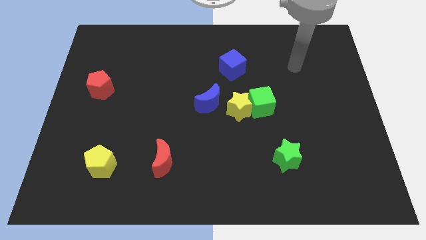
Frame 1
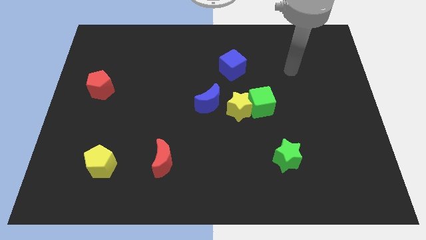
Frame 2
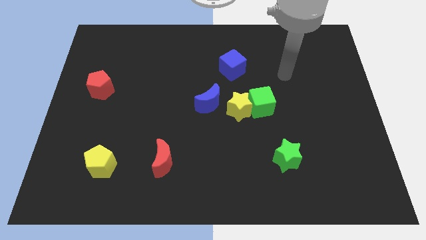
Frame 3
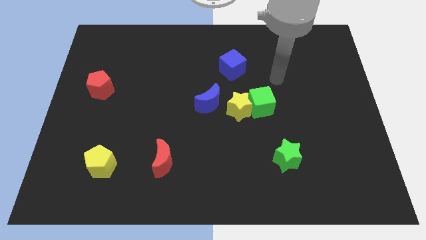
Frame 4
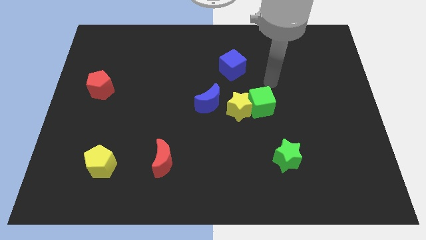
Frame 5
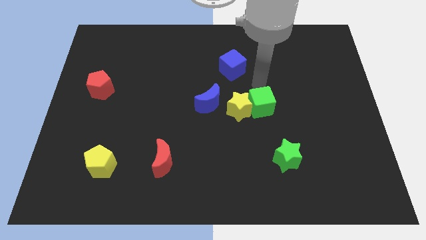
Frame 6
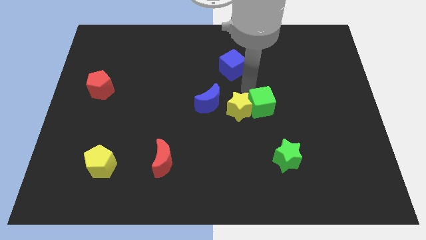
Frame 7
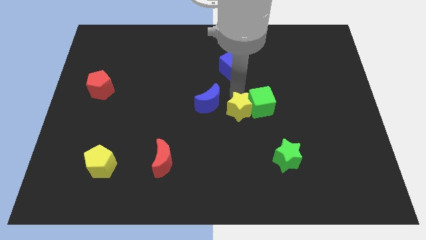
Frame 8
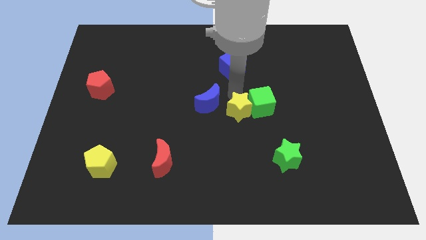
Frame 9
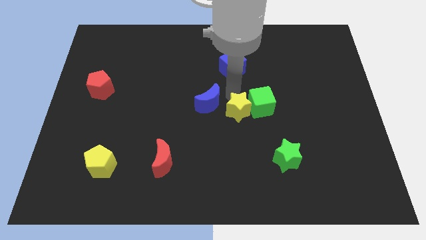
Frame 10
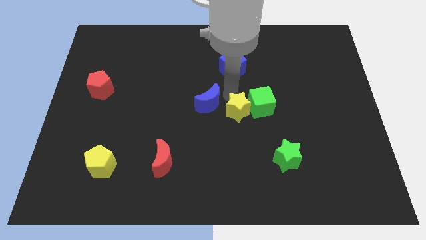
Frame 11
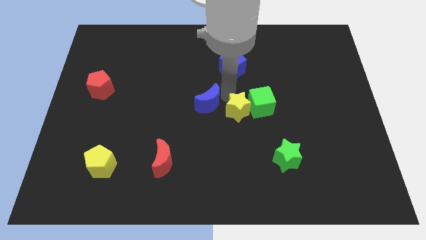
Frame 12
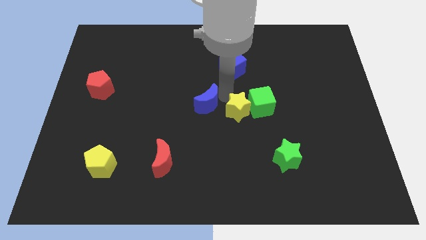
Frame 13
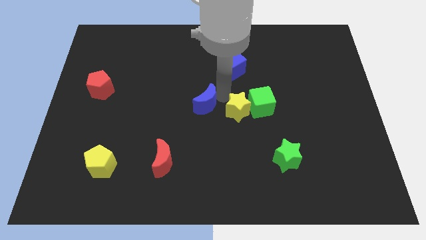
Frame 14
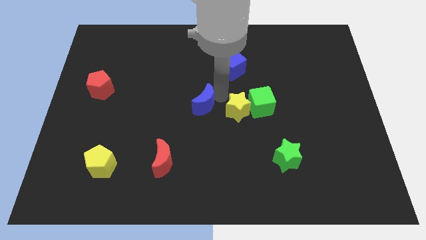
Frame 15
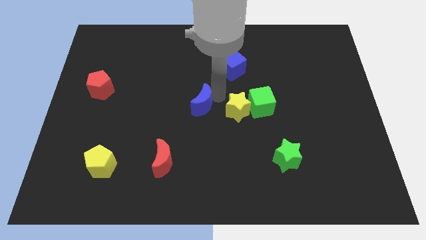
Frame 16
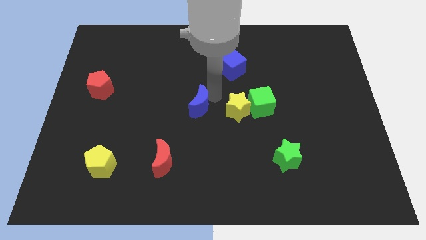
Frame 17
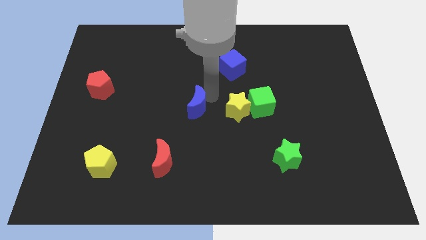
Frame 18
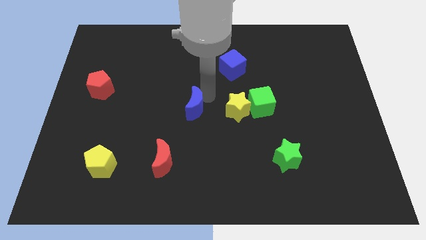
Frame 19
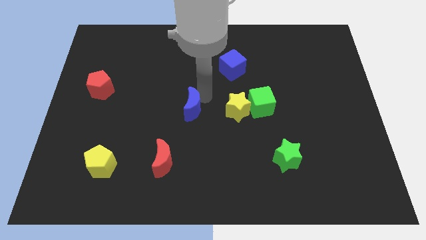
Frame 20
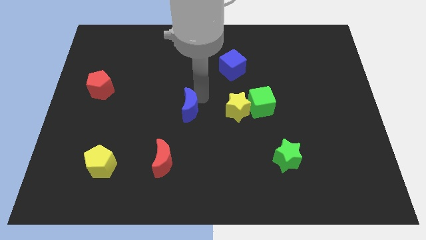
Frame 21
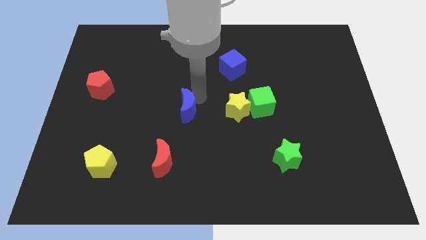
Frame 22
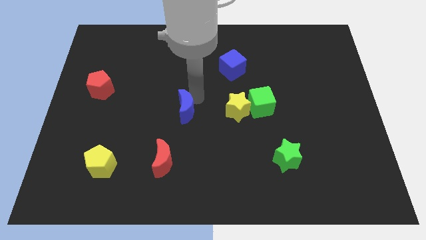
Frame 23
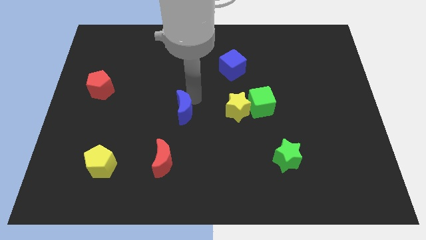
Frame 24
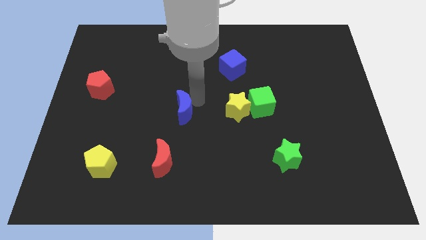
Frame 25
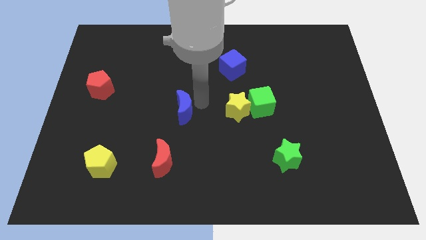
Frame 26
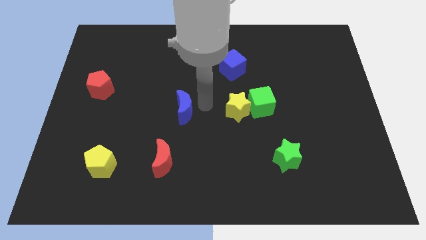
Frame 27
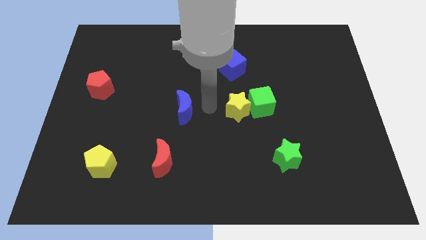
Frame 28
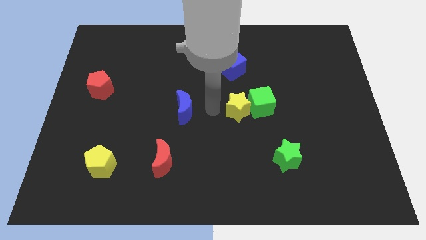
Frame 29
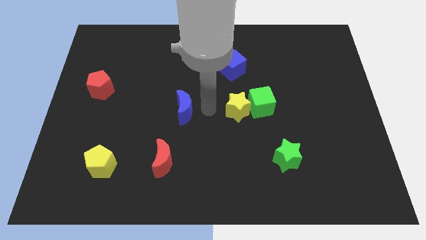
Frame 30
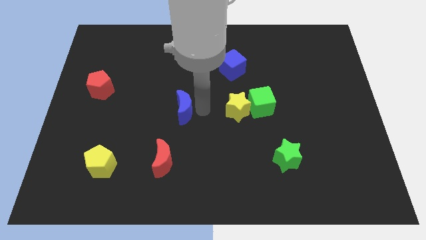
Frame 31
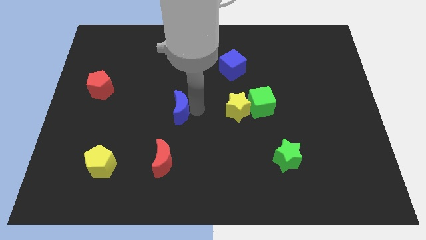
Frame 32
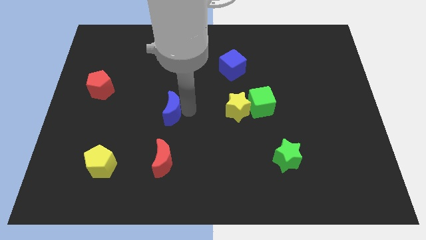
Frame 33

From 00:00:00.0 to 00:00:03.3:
slide the blue moon a bit to the left

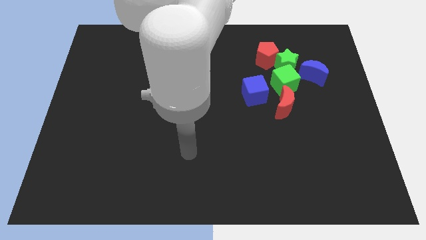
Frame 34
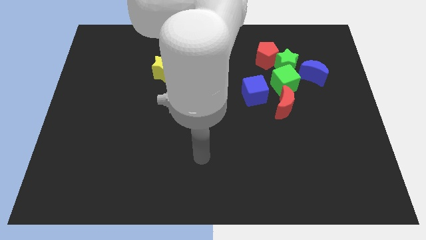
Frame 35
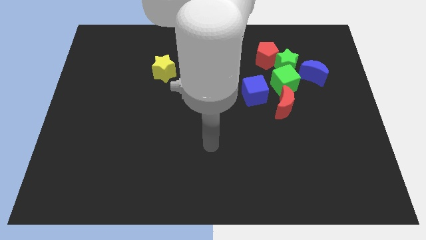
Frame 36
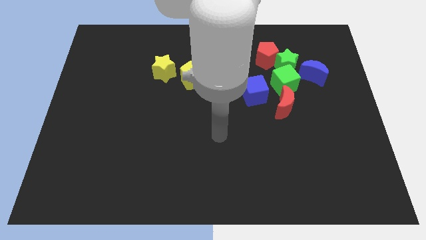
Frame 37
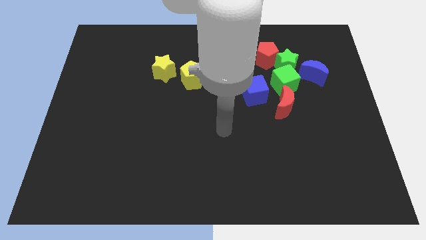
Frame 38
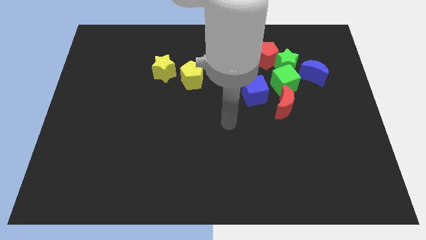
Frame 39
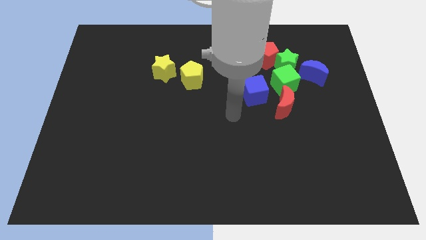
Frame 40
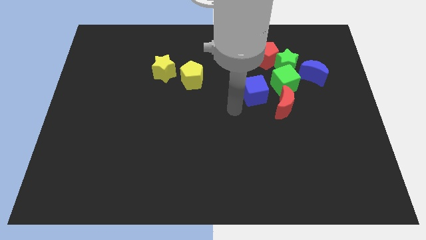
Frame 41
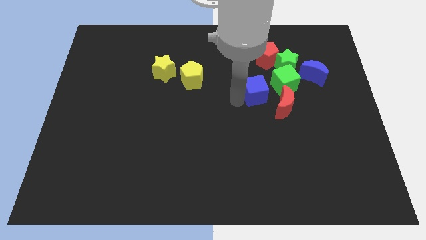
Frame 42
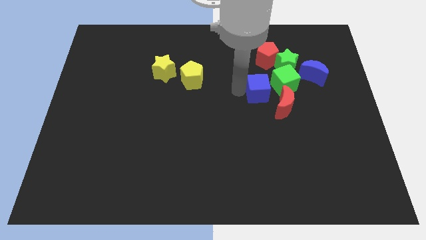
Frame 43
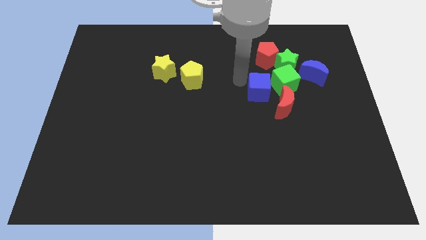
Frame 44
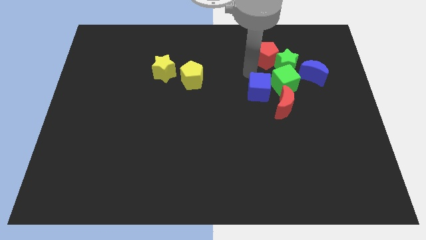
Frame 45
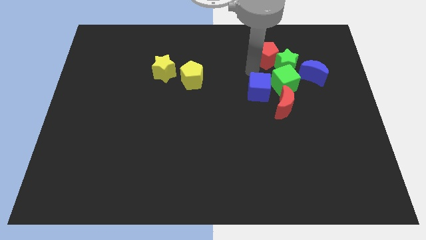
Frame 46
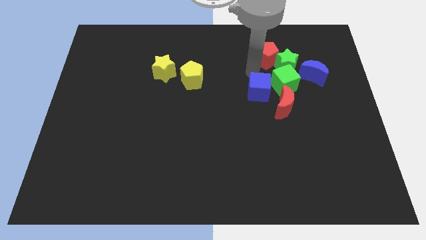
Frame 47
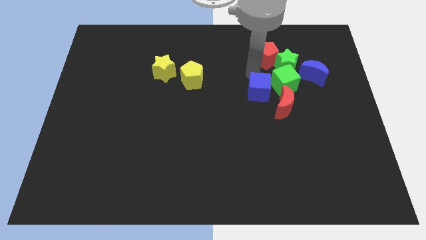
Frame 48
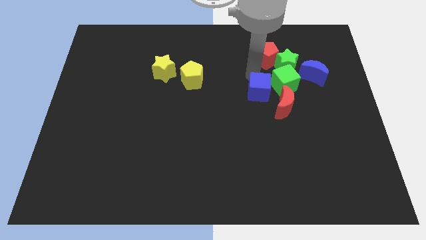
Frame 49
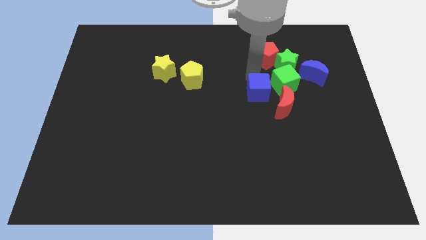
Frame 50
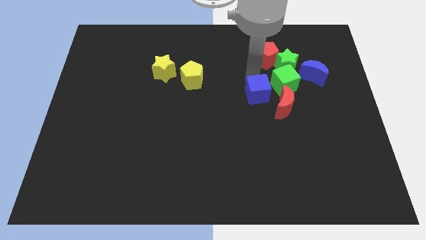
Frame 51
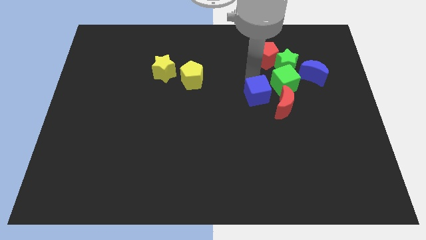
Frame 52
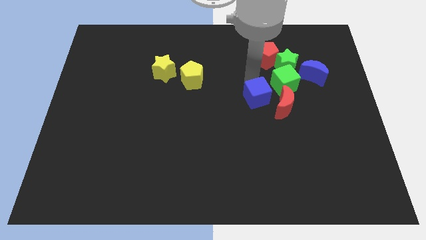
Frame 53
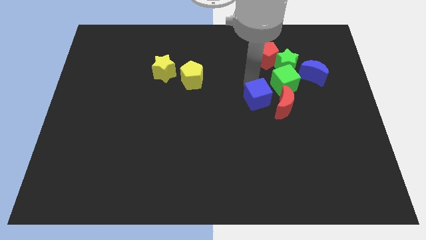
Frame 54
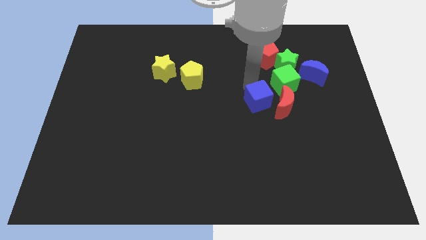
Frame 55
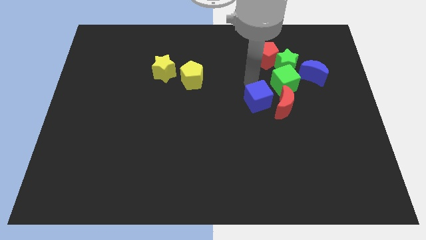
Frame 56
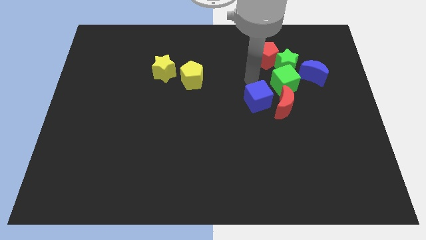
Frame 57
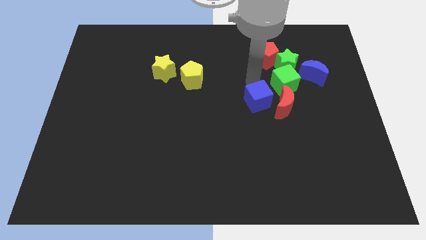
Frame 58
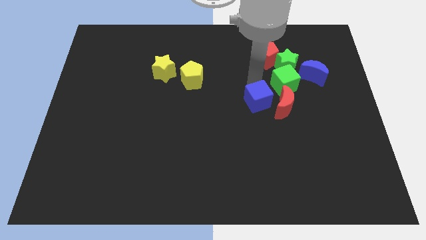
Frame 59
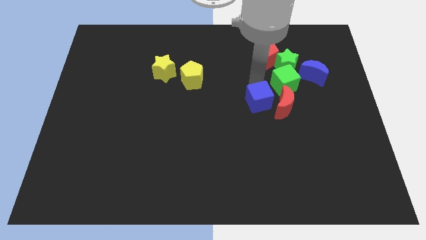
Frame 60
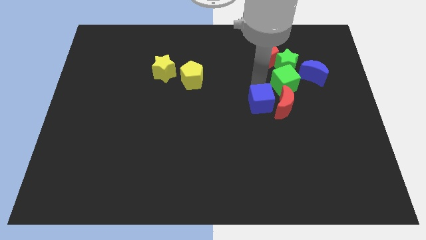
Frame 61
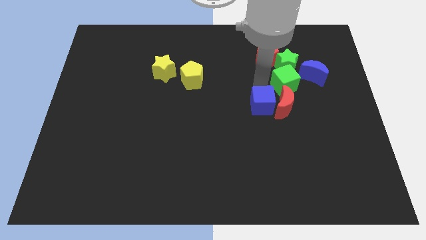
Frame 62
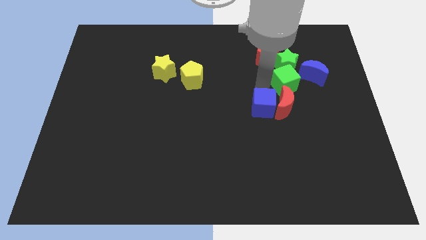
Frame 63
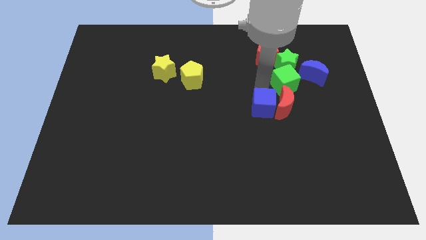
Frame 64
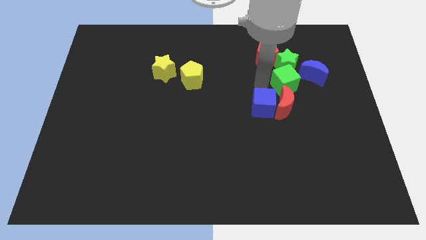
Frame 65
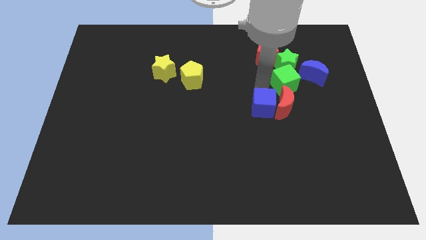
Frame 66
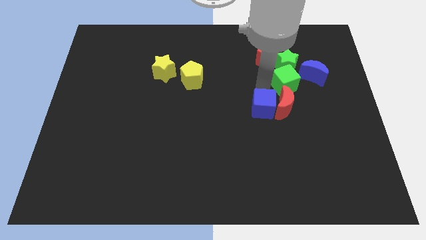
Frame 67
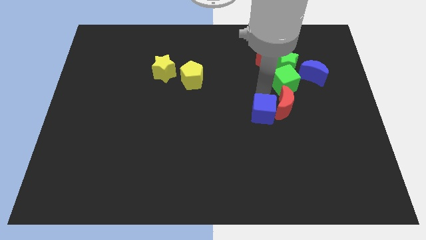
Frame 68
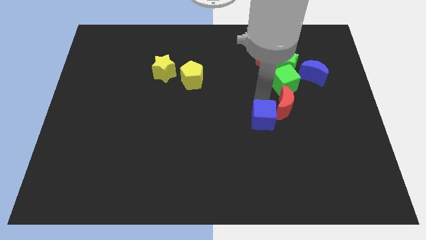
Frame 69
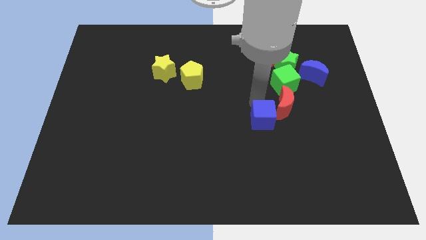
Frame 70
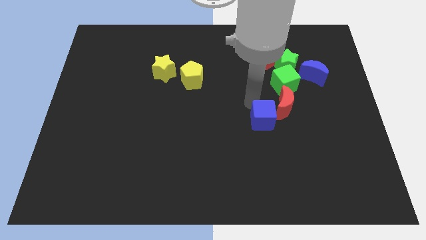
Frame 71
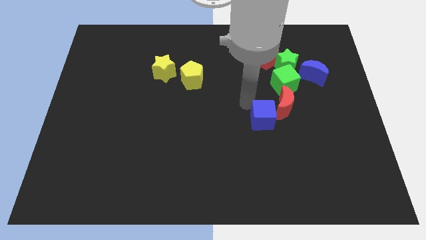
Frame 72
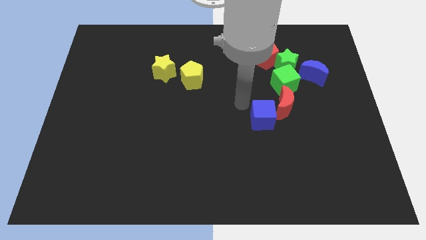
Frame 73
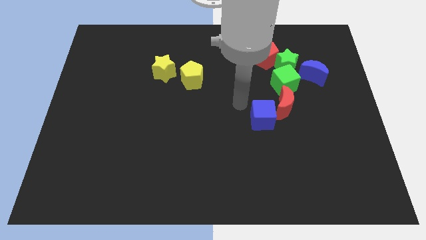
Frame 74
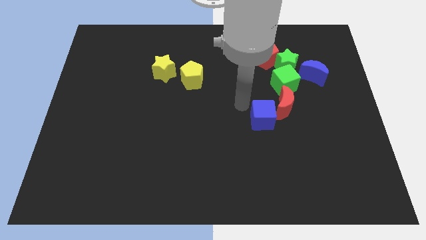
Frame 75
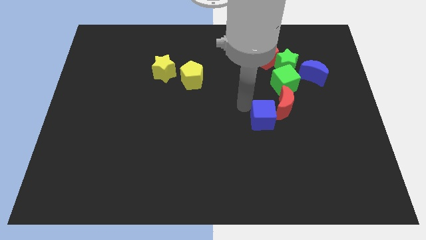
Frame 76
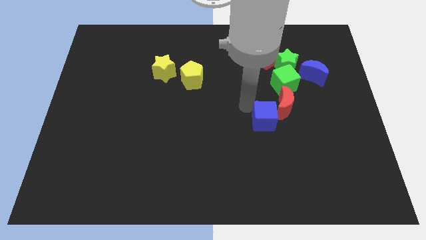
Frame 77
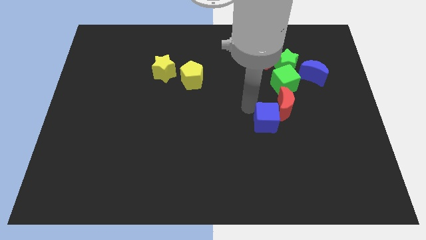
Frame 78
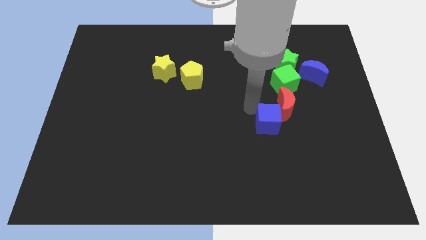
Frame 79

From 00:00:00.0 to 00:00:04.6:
slightly move the blue cube downwards and right
